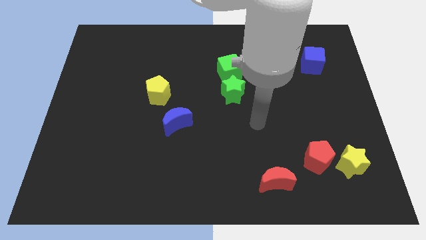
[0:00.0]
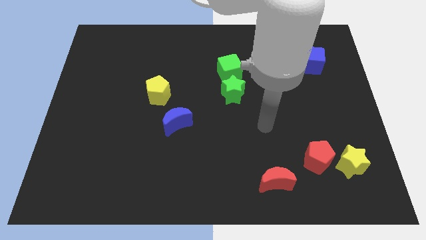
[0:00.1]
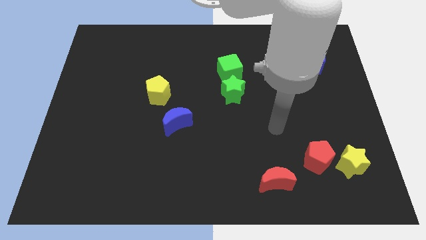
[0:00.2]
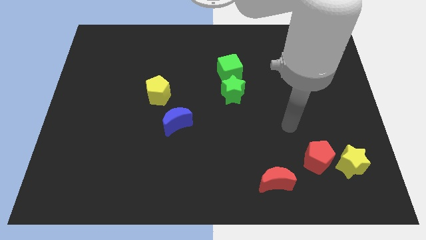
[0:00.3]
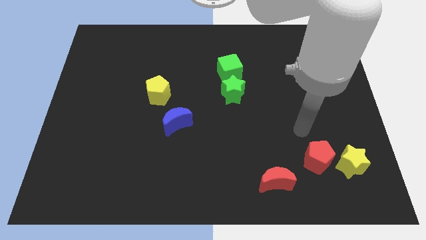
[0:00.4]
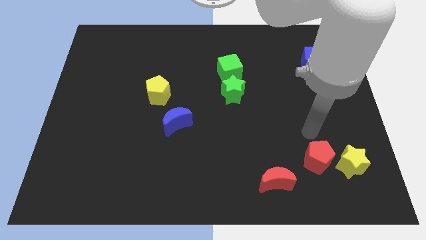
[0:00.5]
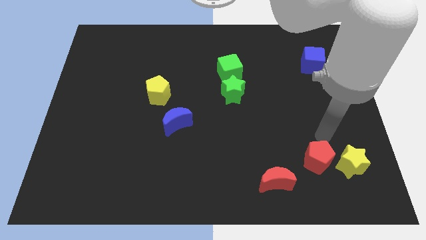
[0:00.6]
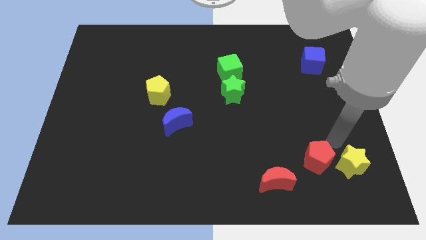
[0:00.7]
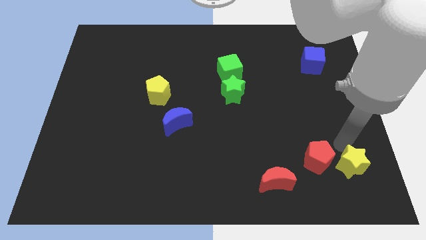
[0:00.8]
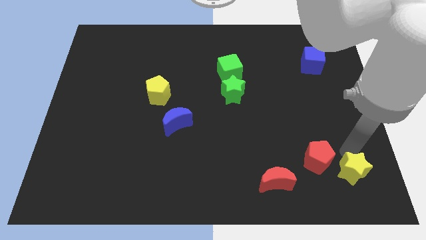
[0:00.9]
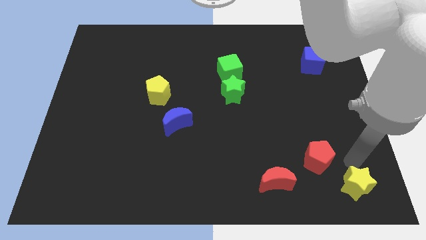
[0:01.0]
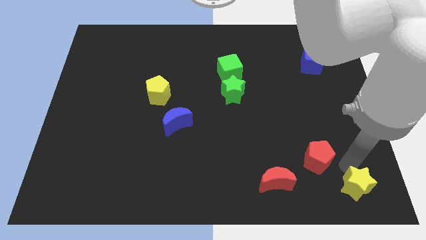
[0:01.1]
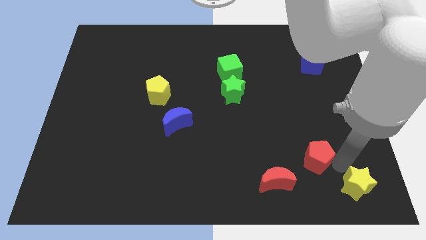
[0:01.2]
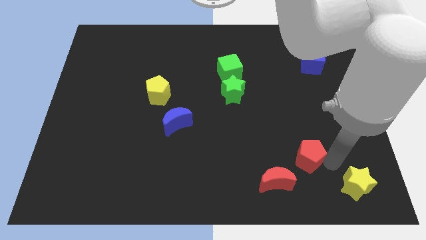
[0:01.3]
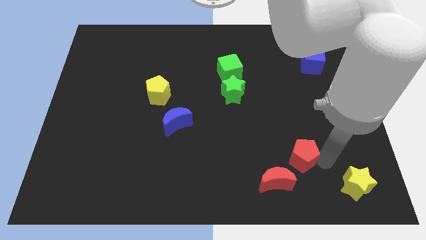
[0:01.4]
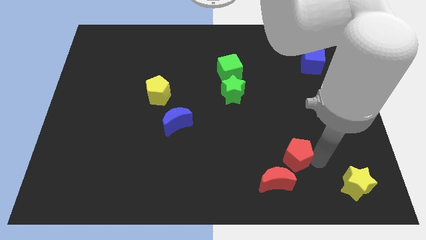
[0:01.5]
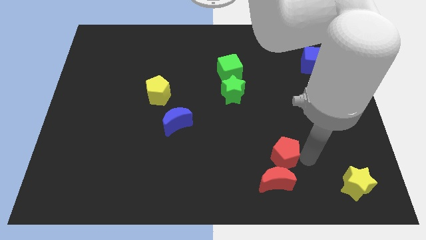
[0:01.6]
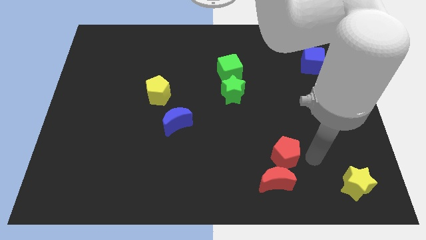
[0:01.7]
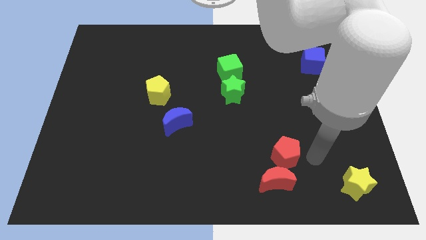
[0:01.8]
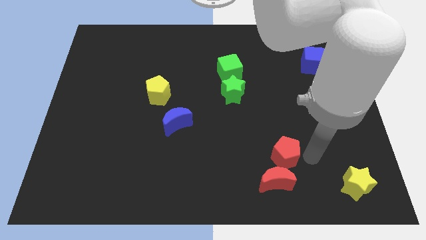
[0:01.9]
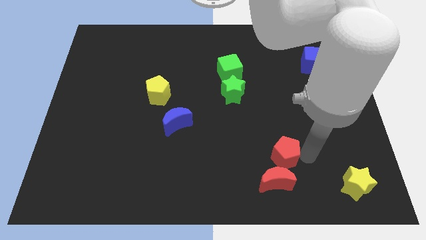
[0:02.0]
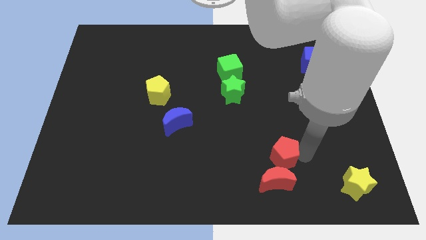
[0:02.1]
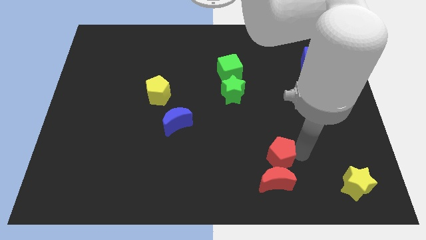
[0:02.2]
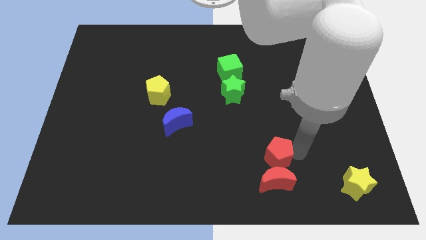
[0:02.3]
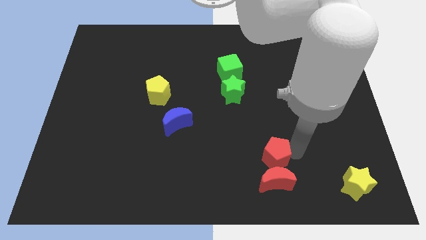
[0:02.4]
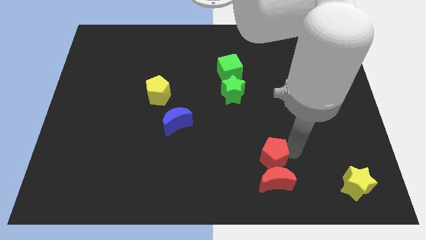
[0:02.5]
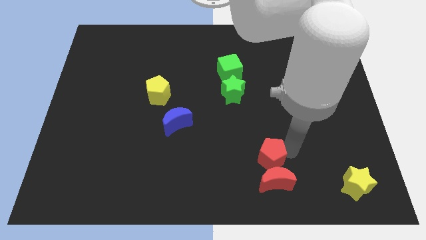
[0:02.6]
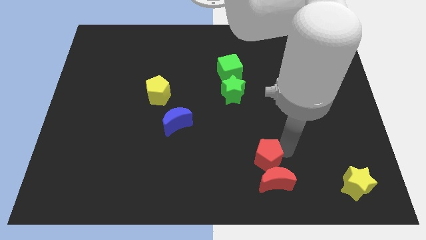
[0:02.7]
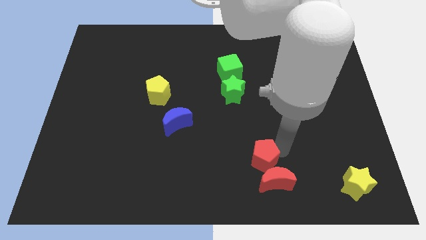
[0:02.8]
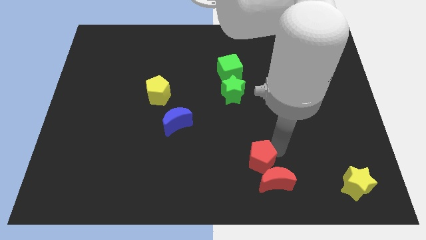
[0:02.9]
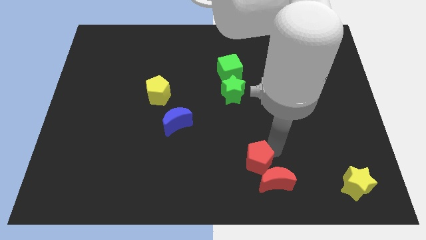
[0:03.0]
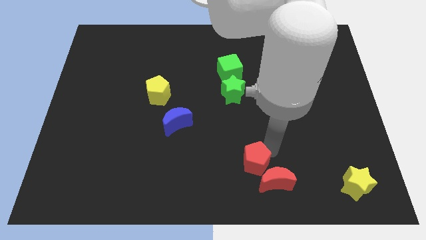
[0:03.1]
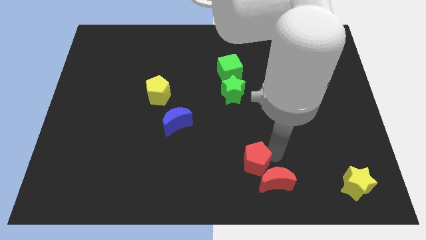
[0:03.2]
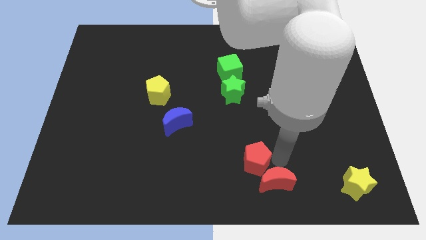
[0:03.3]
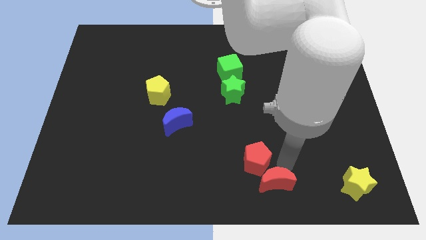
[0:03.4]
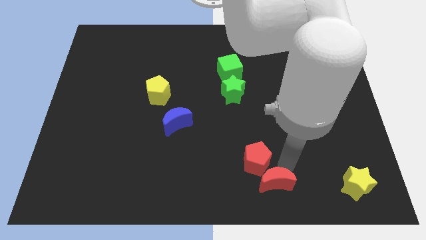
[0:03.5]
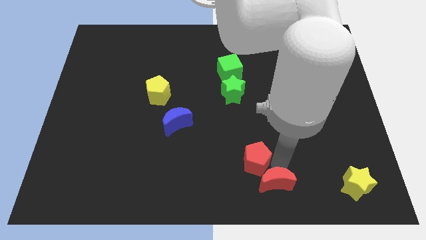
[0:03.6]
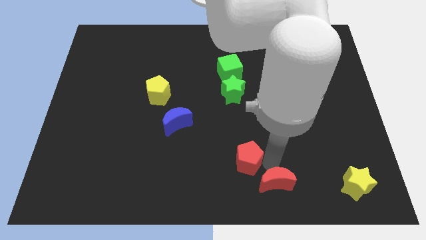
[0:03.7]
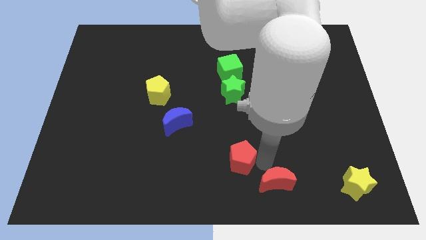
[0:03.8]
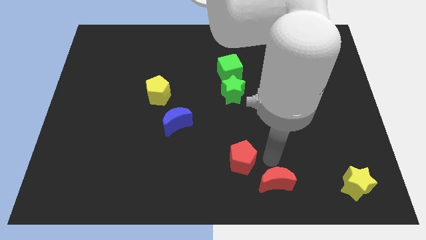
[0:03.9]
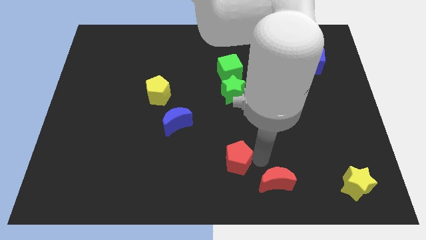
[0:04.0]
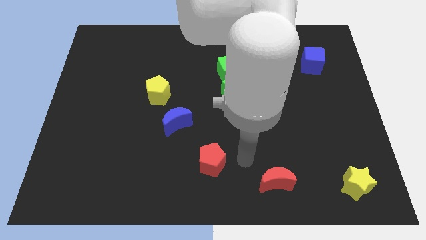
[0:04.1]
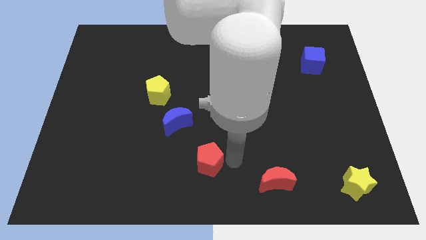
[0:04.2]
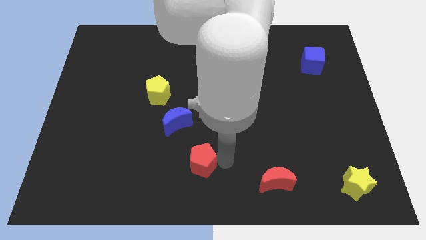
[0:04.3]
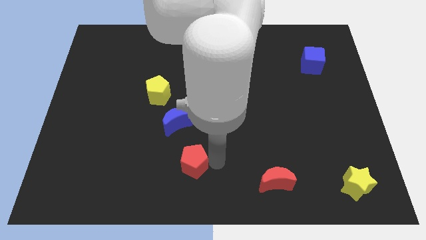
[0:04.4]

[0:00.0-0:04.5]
slide the red pentagon to the bottom side of the blue moon

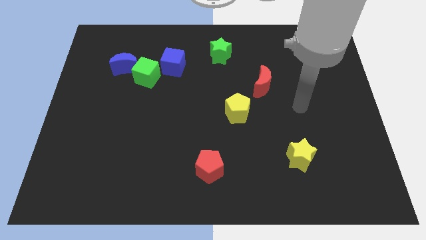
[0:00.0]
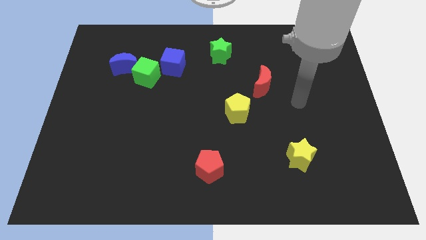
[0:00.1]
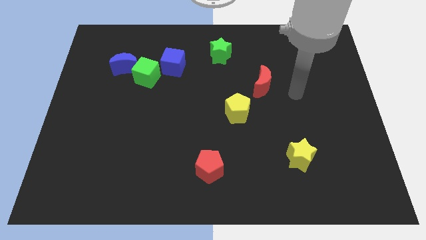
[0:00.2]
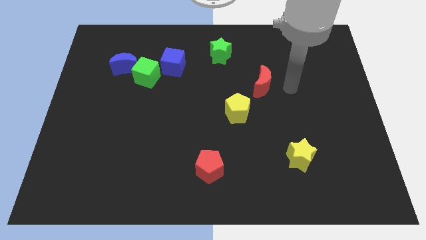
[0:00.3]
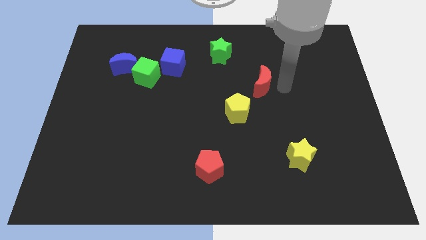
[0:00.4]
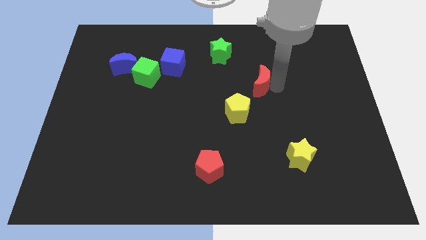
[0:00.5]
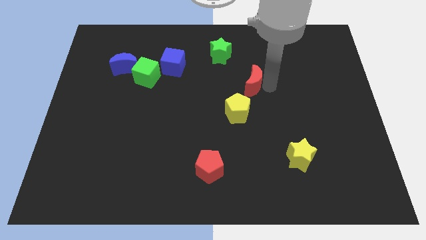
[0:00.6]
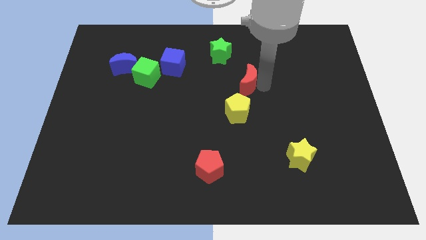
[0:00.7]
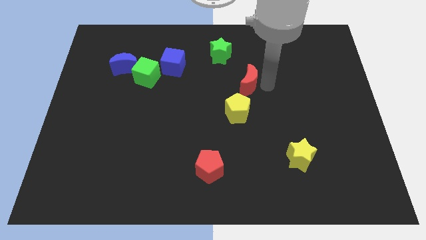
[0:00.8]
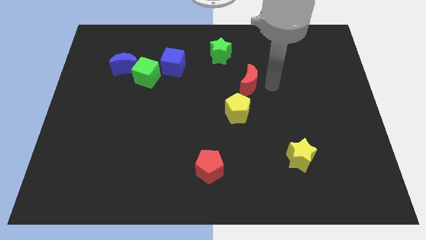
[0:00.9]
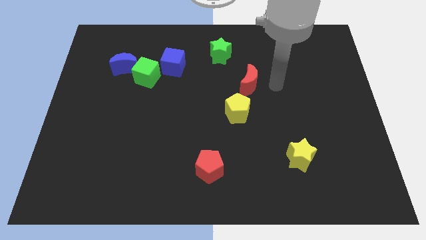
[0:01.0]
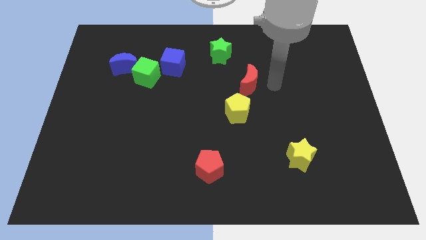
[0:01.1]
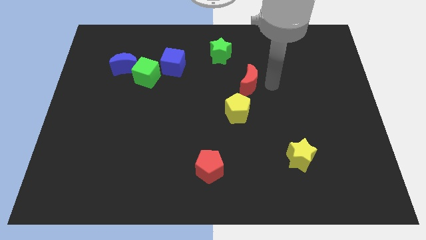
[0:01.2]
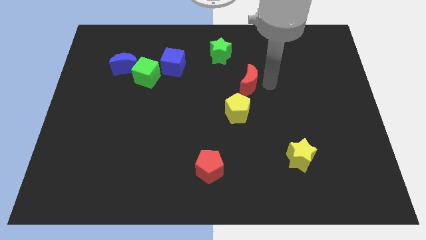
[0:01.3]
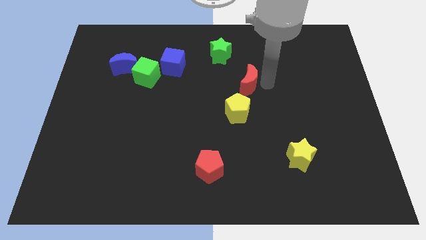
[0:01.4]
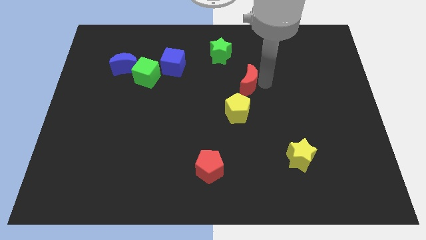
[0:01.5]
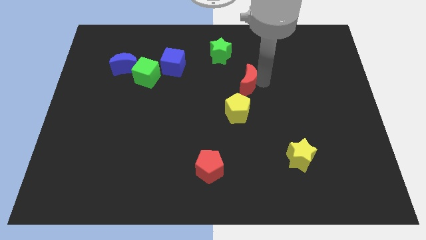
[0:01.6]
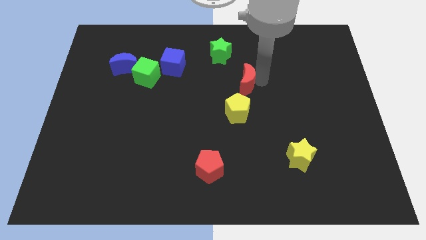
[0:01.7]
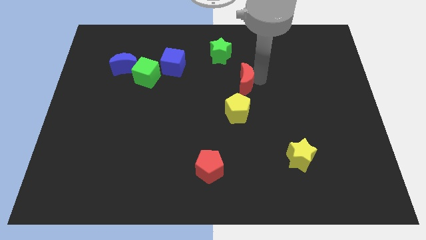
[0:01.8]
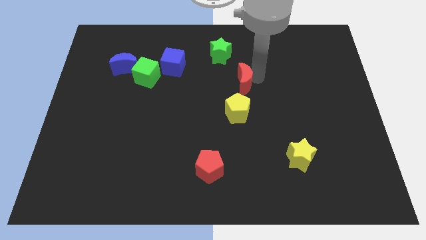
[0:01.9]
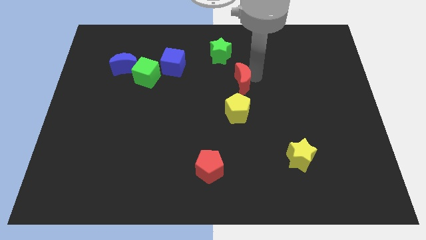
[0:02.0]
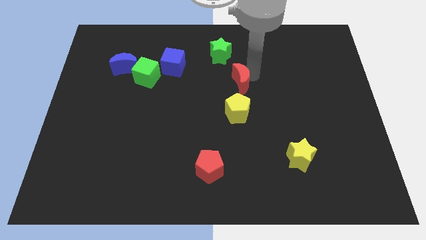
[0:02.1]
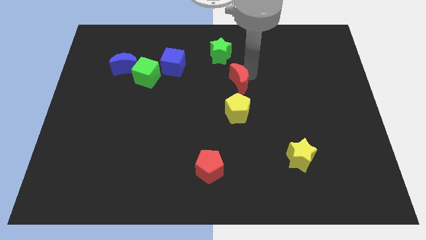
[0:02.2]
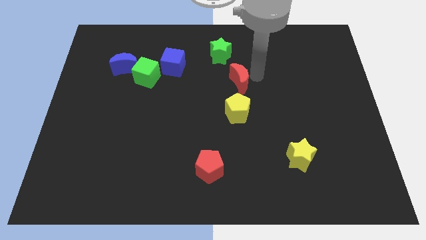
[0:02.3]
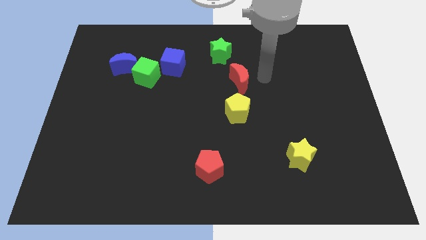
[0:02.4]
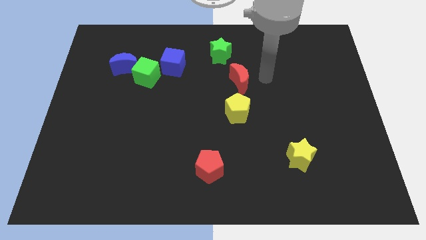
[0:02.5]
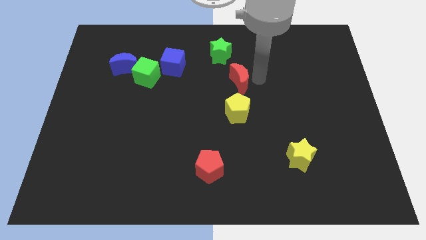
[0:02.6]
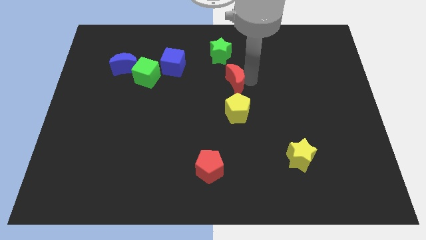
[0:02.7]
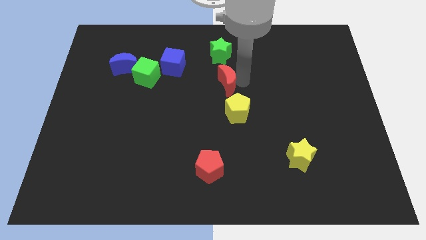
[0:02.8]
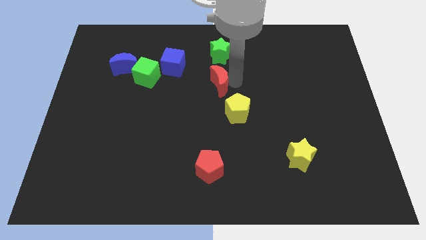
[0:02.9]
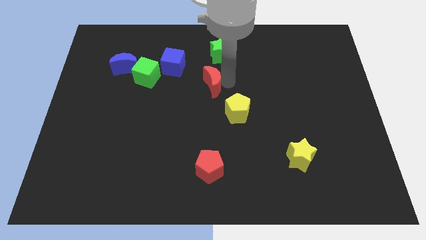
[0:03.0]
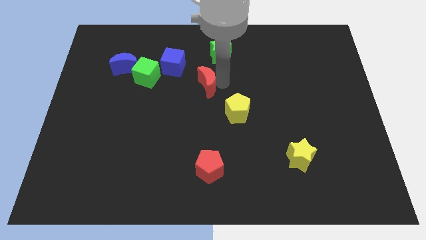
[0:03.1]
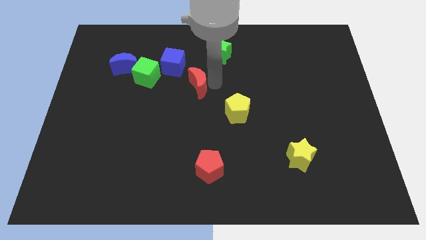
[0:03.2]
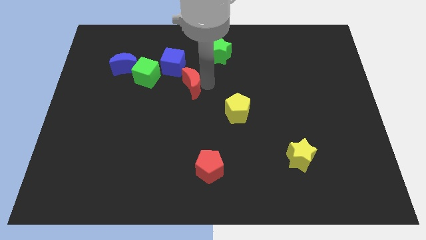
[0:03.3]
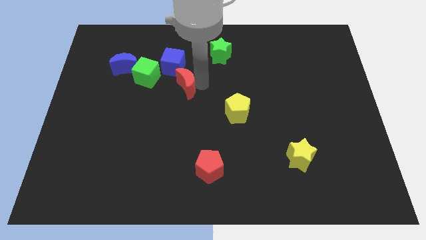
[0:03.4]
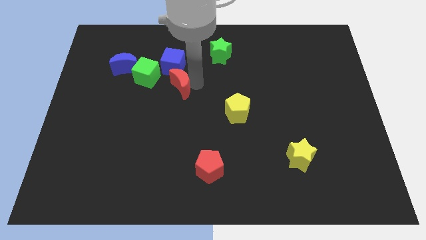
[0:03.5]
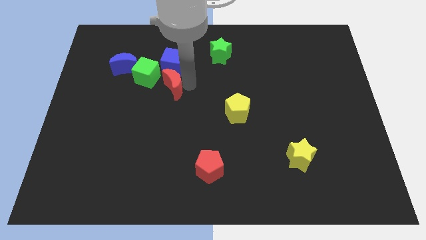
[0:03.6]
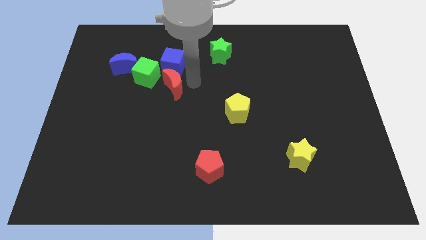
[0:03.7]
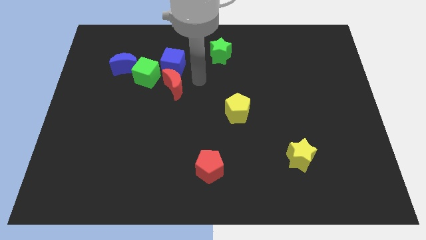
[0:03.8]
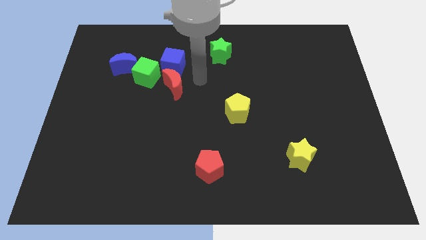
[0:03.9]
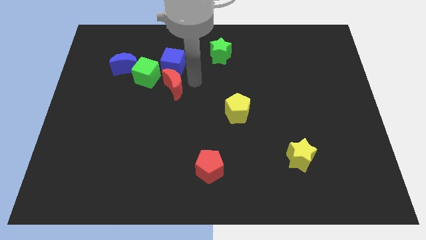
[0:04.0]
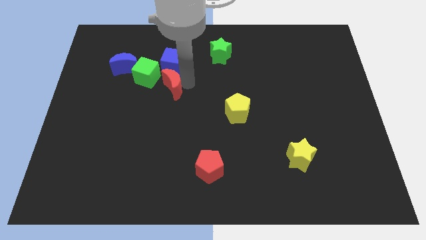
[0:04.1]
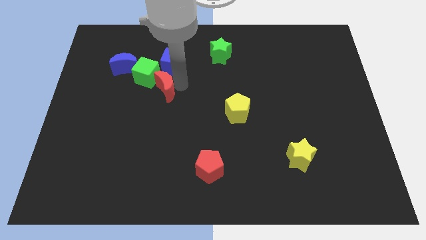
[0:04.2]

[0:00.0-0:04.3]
move the red moon diagonally down and to the left of the blue cube
